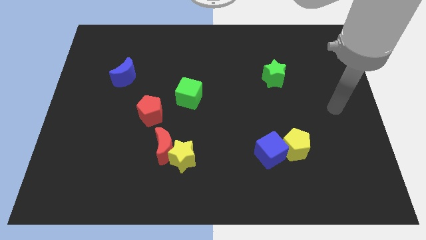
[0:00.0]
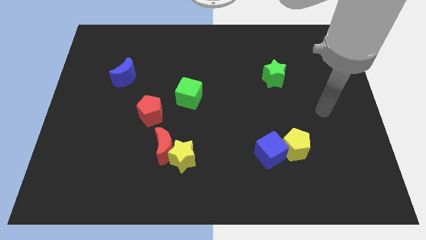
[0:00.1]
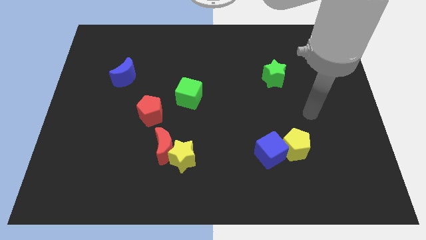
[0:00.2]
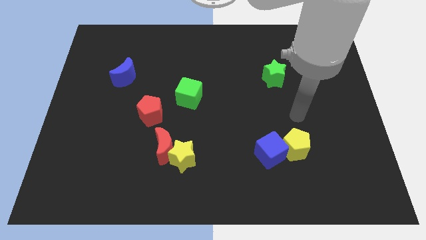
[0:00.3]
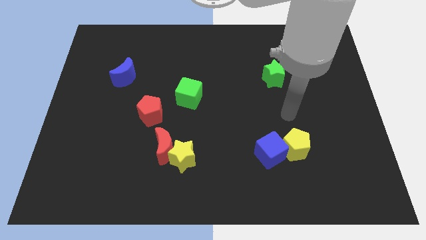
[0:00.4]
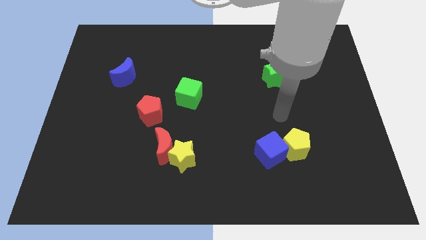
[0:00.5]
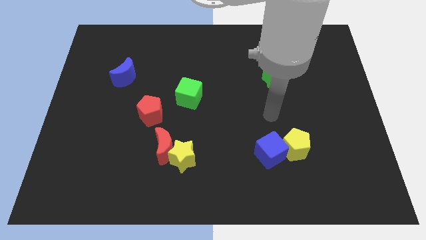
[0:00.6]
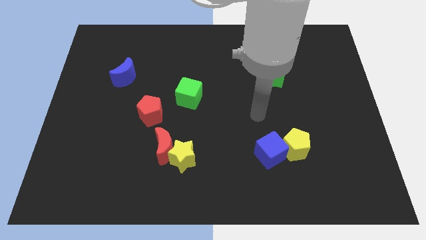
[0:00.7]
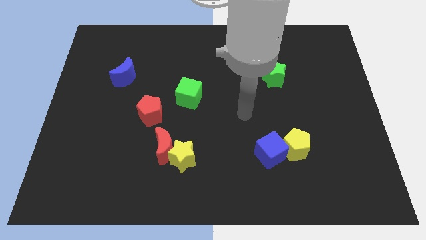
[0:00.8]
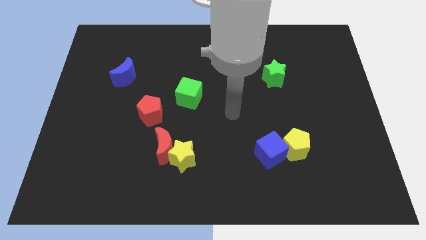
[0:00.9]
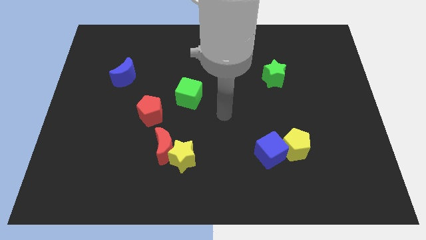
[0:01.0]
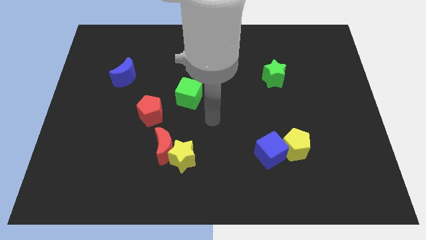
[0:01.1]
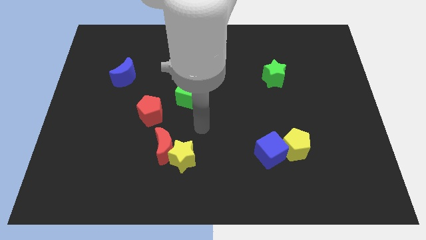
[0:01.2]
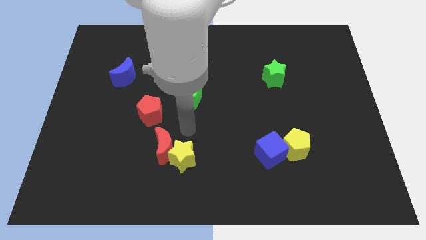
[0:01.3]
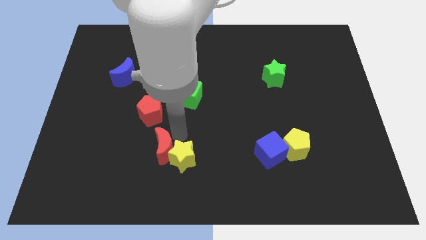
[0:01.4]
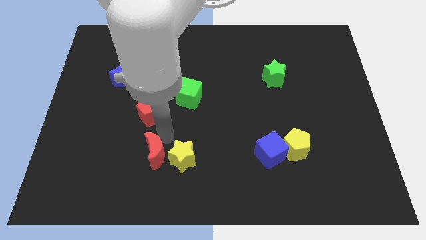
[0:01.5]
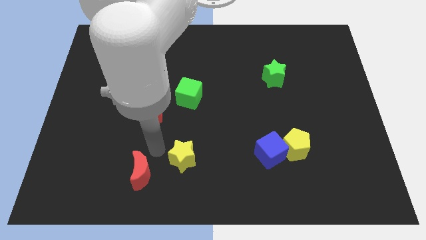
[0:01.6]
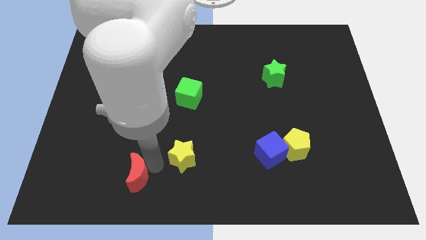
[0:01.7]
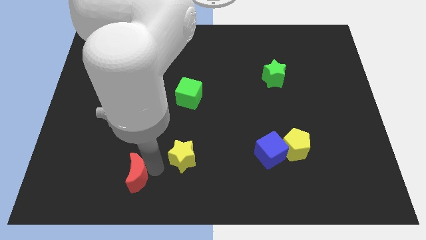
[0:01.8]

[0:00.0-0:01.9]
move the yellow star away from the red moon

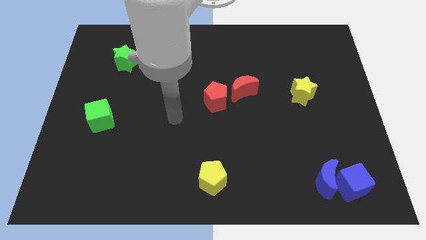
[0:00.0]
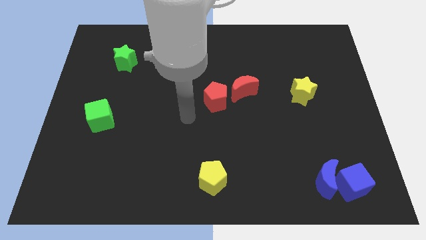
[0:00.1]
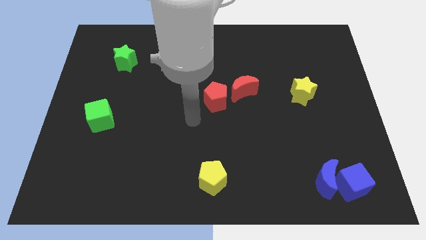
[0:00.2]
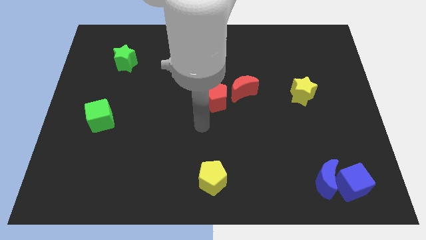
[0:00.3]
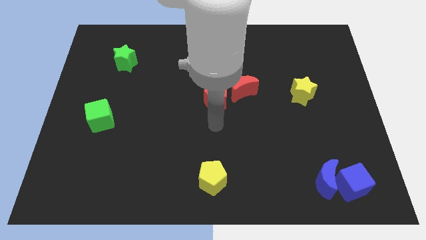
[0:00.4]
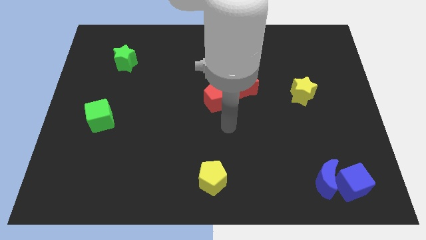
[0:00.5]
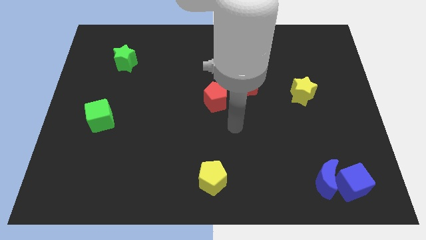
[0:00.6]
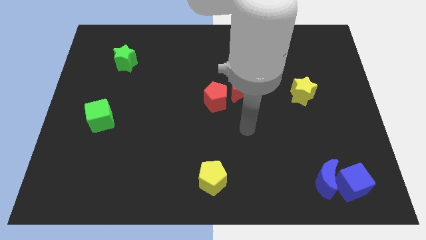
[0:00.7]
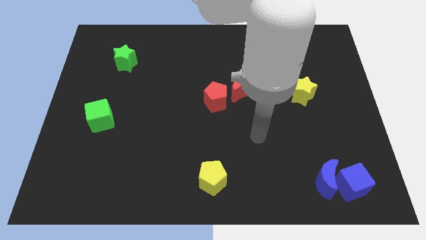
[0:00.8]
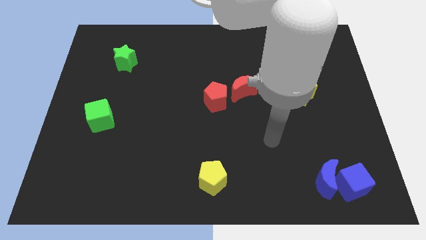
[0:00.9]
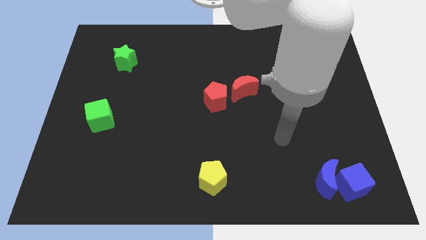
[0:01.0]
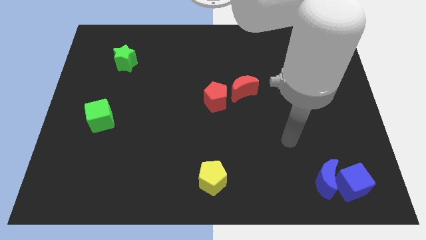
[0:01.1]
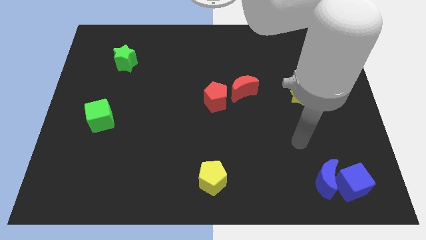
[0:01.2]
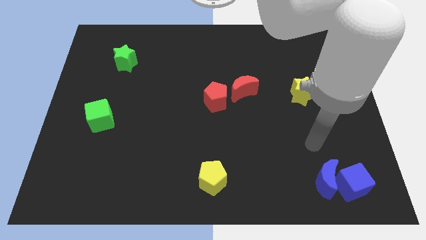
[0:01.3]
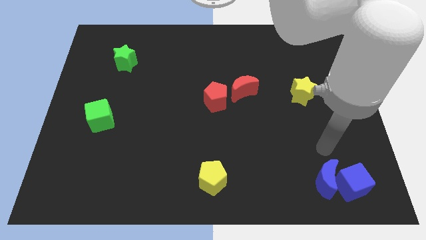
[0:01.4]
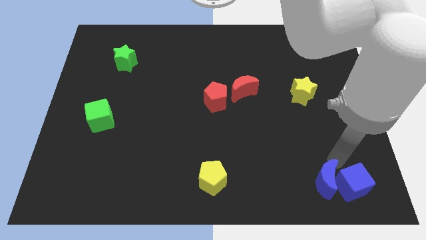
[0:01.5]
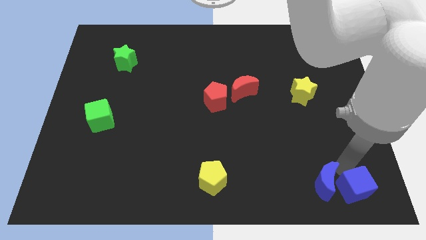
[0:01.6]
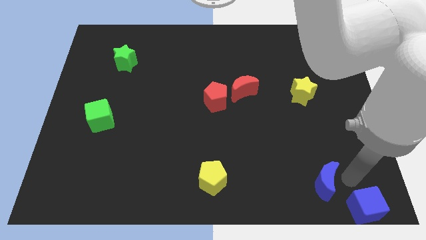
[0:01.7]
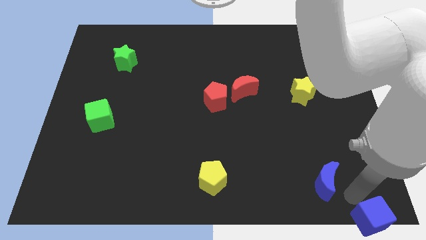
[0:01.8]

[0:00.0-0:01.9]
separate the blue moon from the blue cube

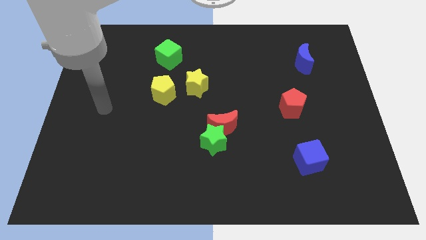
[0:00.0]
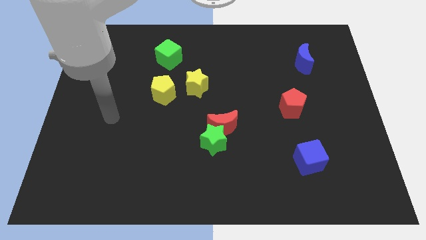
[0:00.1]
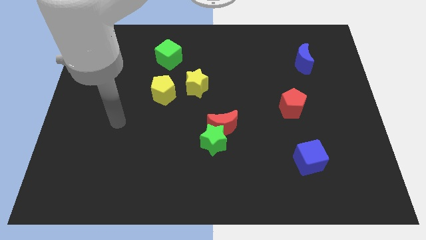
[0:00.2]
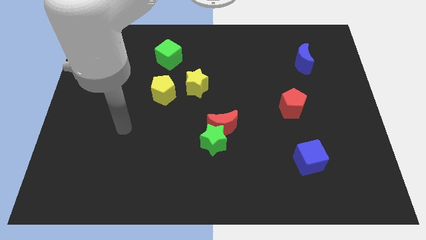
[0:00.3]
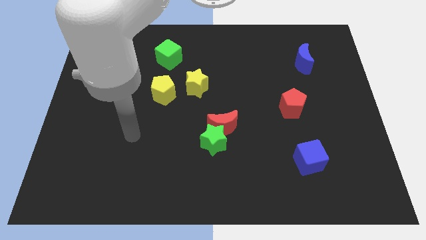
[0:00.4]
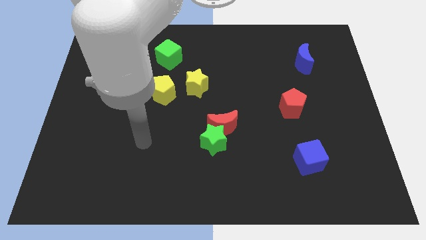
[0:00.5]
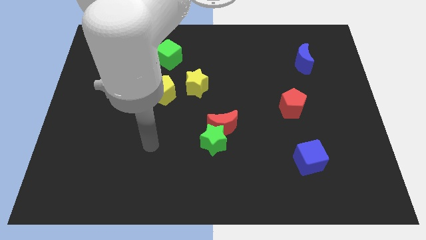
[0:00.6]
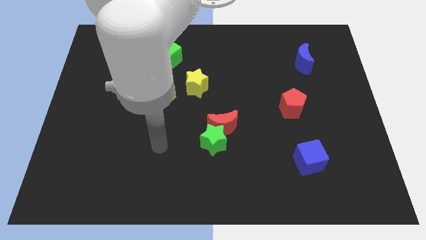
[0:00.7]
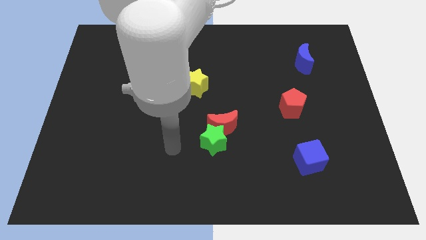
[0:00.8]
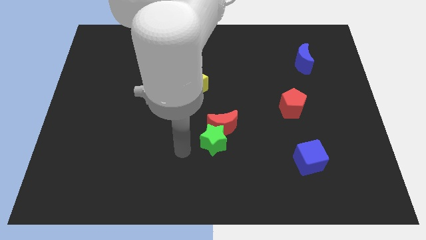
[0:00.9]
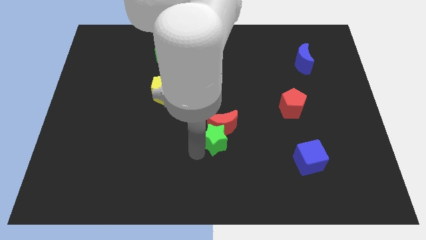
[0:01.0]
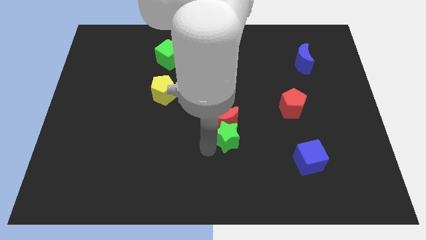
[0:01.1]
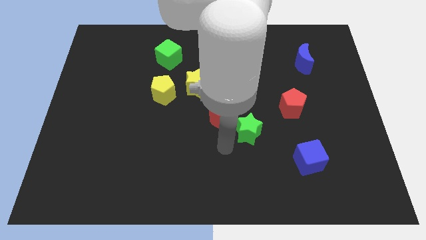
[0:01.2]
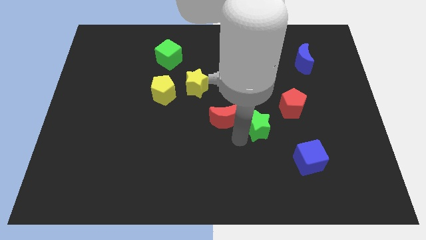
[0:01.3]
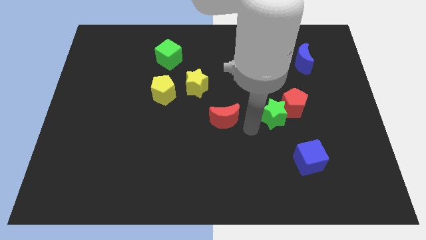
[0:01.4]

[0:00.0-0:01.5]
separate the red moon from the green star

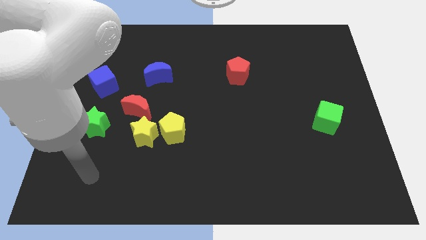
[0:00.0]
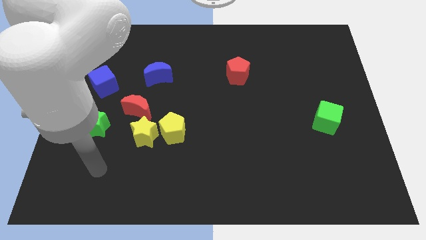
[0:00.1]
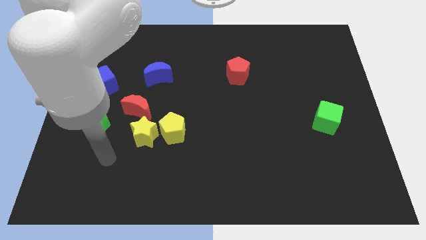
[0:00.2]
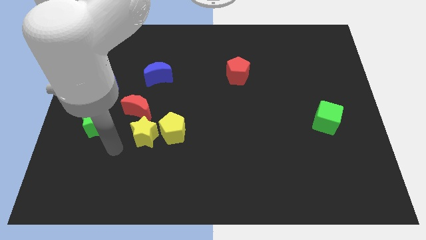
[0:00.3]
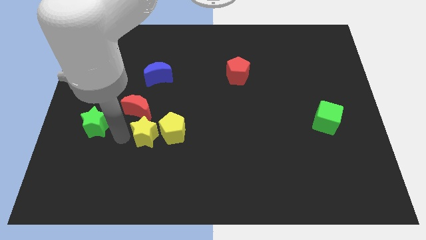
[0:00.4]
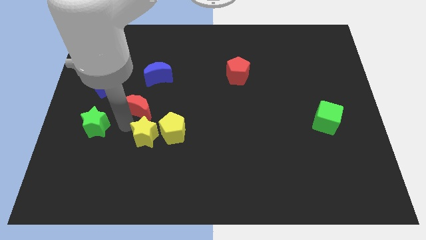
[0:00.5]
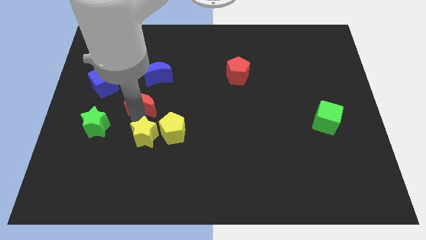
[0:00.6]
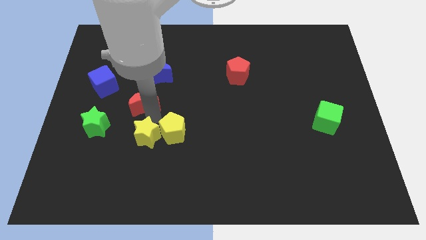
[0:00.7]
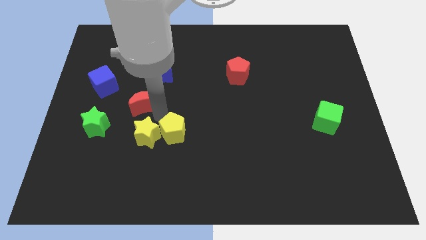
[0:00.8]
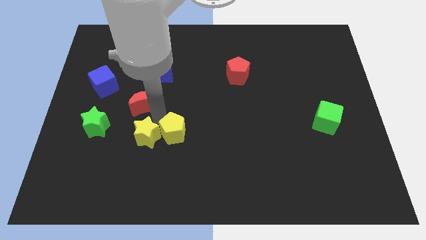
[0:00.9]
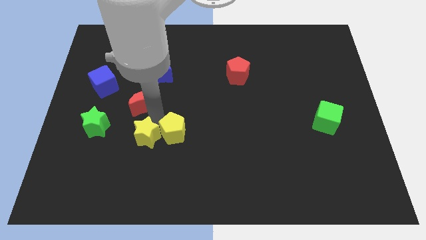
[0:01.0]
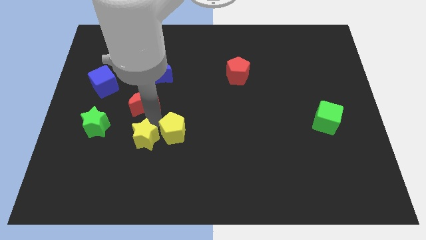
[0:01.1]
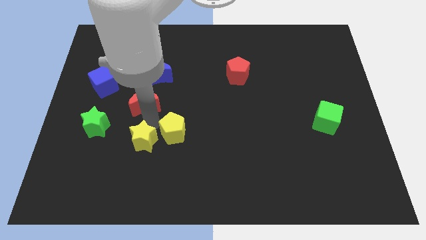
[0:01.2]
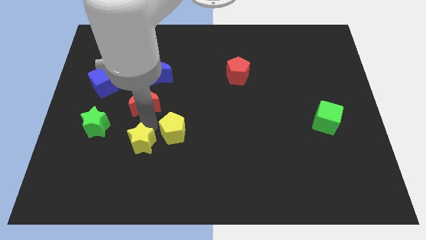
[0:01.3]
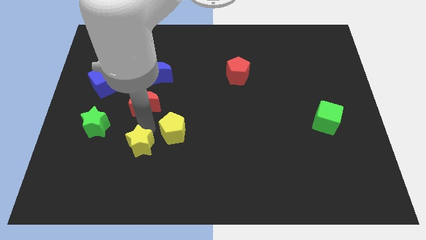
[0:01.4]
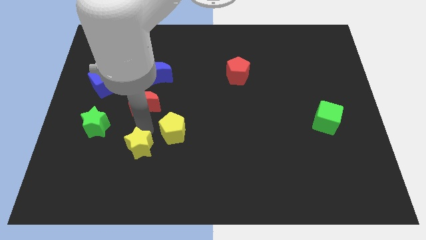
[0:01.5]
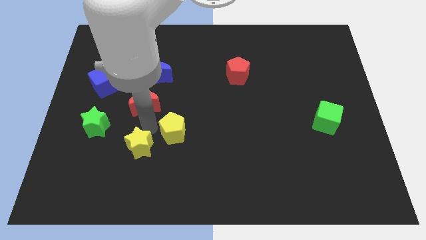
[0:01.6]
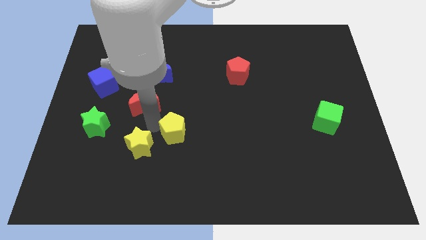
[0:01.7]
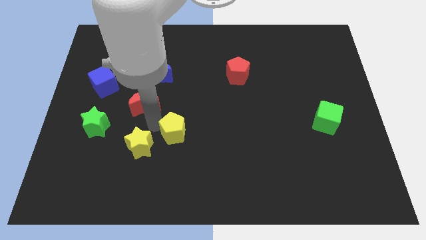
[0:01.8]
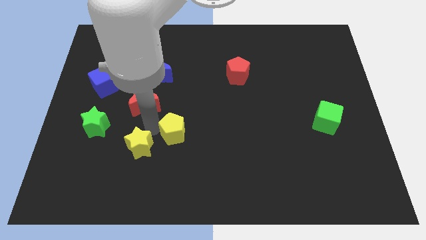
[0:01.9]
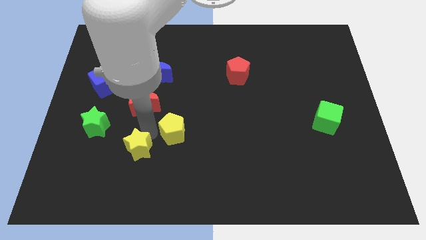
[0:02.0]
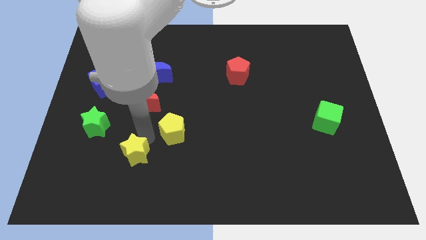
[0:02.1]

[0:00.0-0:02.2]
pull the yellow star apart from the yellow pentagon and red moon

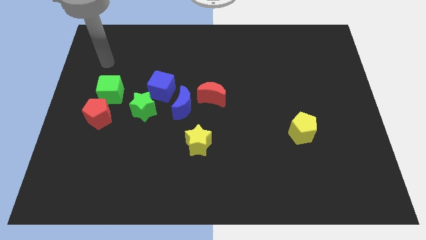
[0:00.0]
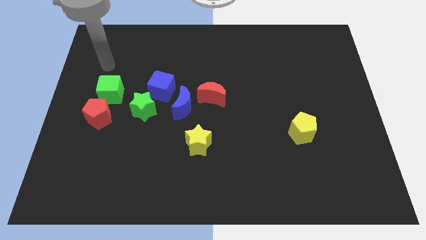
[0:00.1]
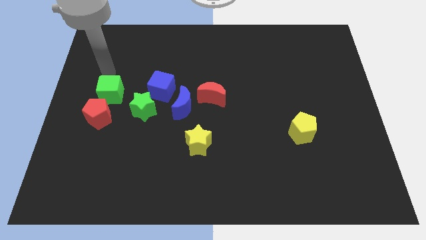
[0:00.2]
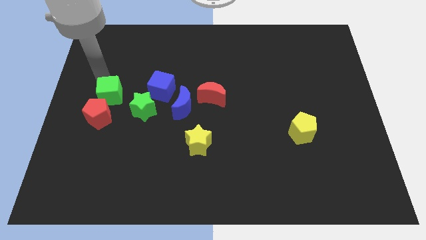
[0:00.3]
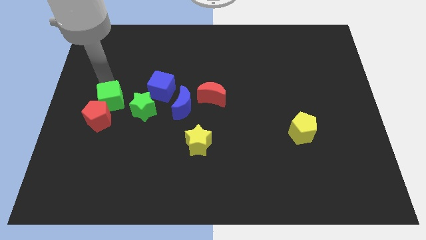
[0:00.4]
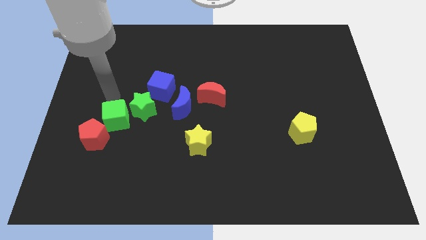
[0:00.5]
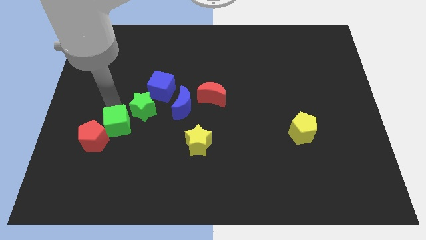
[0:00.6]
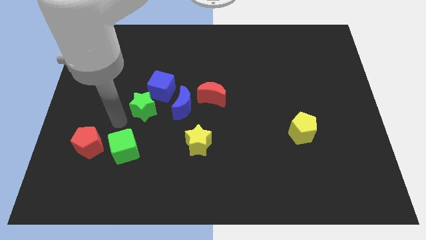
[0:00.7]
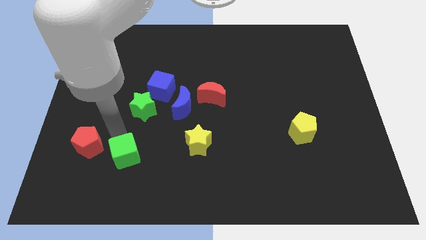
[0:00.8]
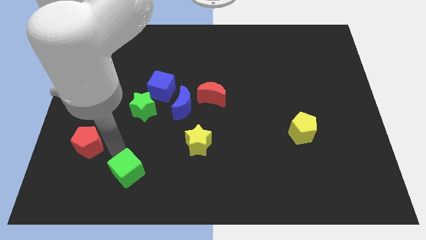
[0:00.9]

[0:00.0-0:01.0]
separate the red pentagon from the green cube

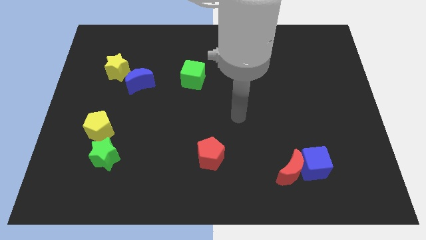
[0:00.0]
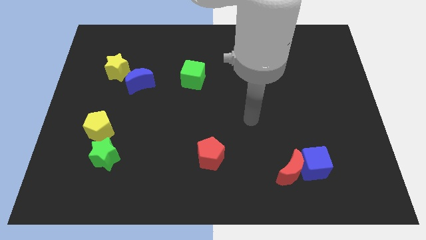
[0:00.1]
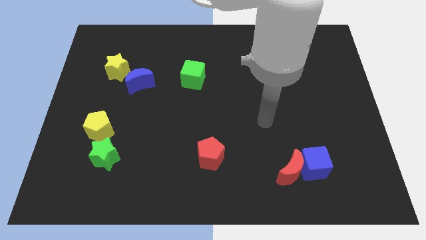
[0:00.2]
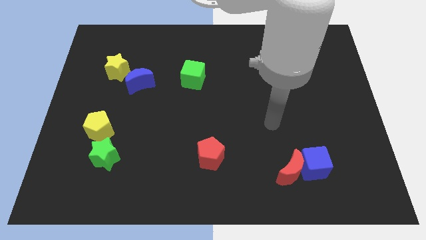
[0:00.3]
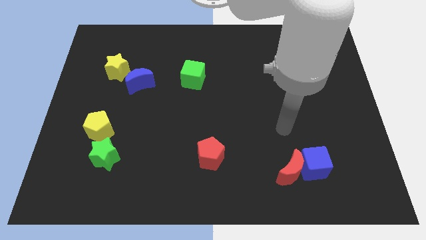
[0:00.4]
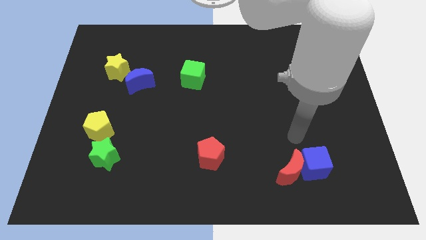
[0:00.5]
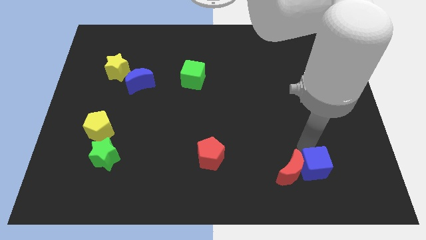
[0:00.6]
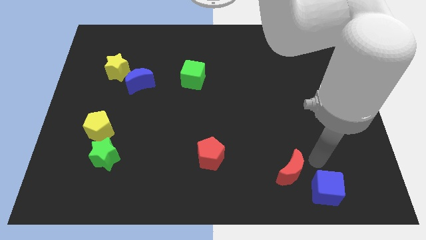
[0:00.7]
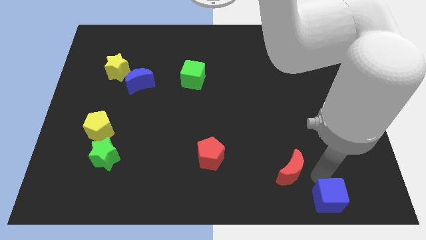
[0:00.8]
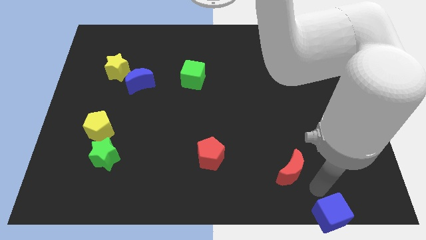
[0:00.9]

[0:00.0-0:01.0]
separate the red moon from the blue cube
